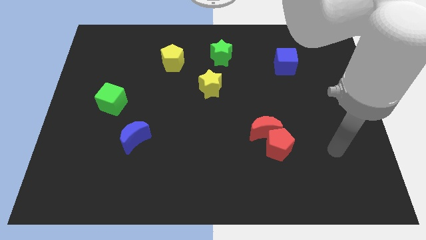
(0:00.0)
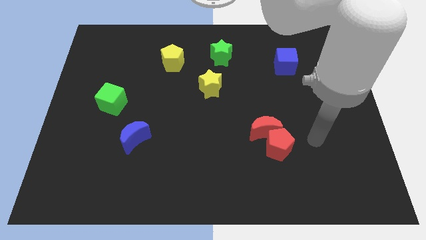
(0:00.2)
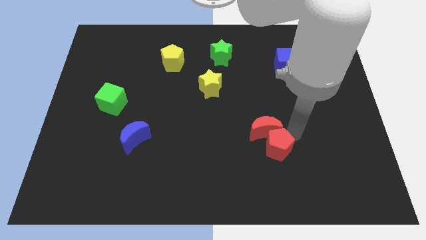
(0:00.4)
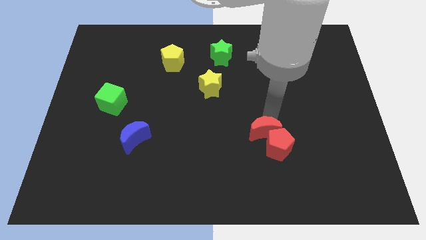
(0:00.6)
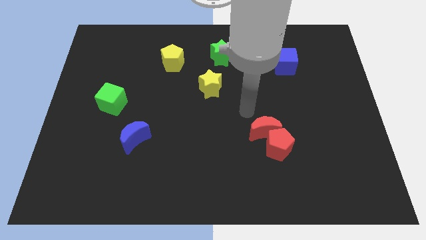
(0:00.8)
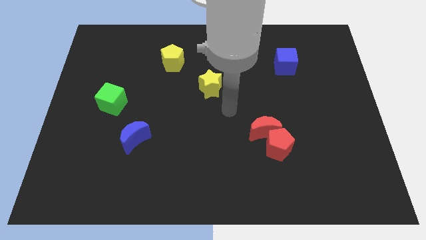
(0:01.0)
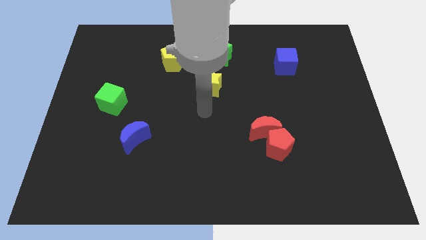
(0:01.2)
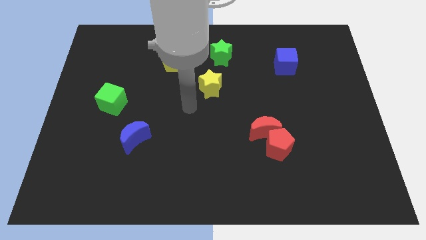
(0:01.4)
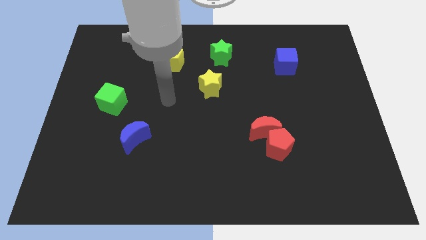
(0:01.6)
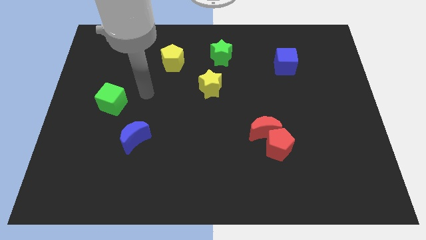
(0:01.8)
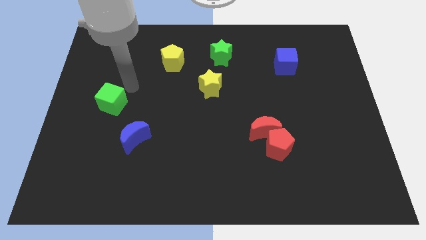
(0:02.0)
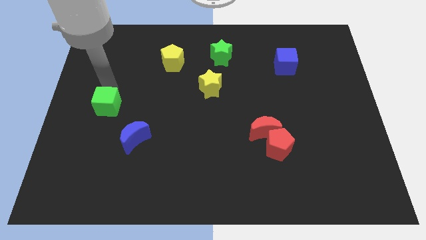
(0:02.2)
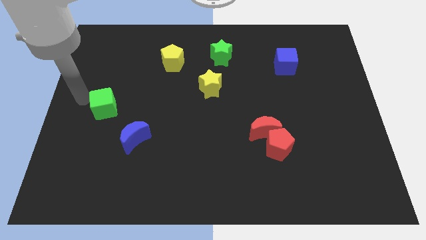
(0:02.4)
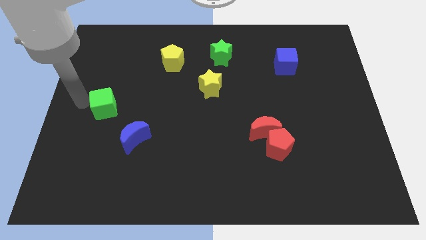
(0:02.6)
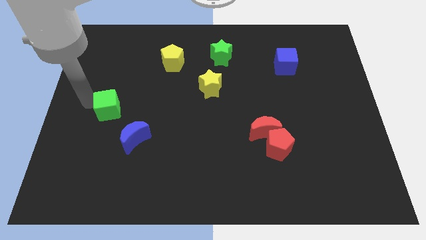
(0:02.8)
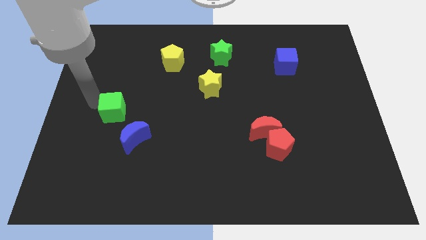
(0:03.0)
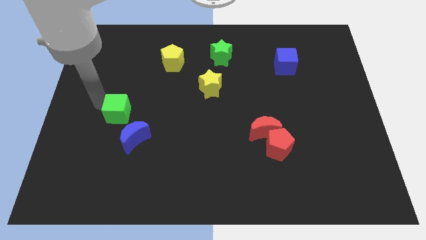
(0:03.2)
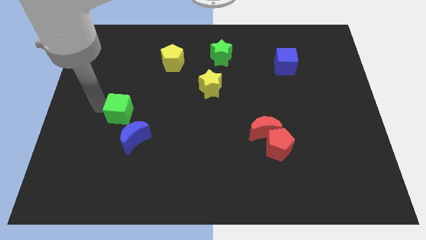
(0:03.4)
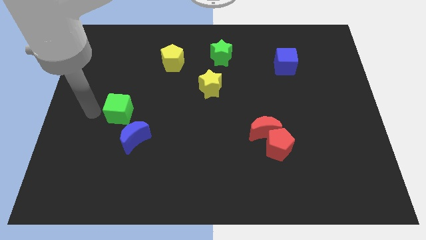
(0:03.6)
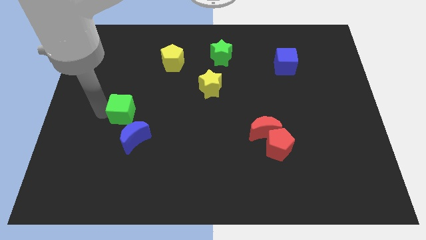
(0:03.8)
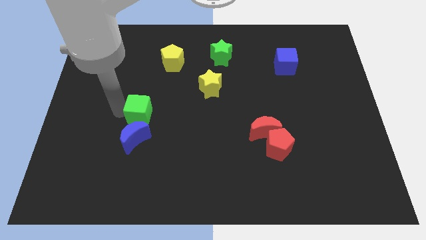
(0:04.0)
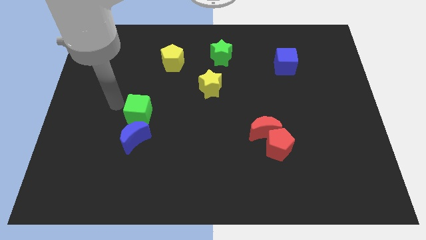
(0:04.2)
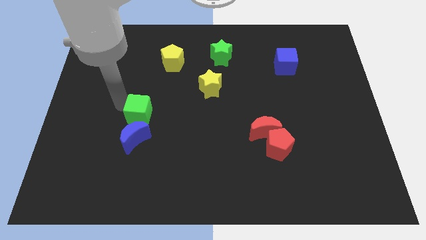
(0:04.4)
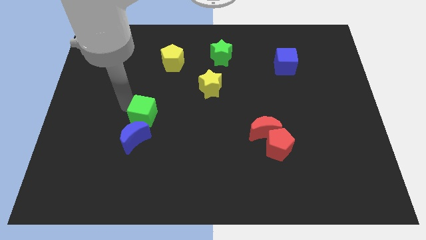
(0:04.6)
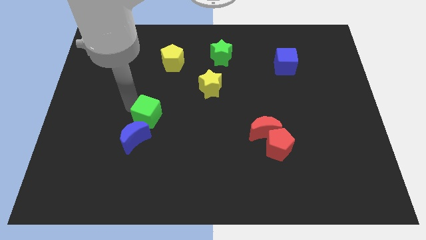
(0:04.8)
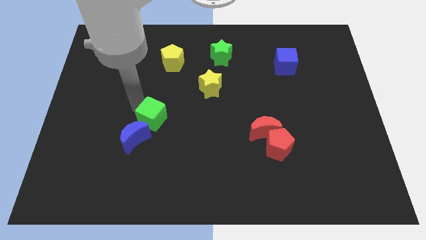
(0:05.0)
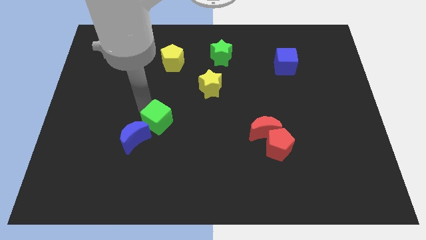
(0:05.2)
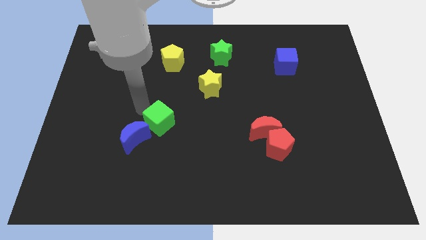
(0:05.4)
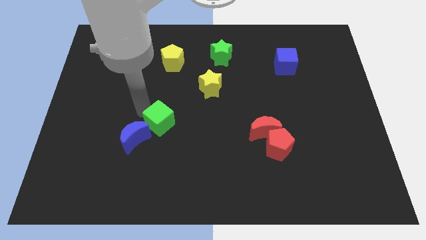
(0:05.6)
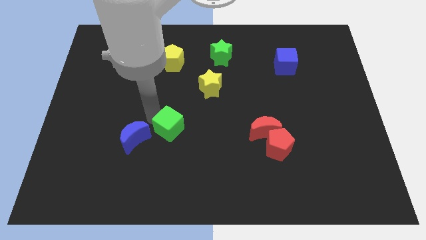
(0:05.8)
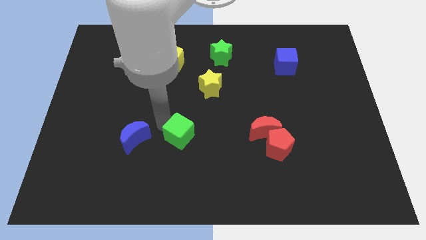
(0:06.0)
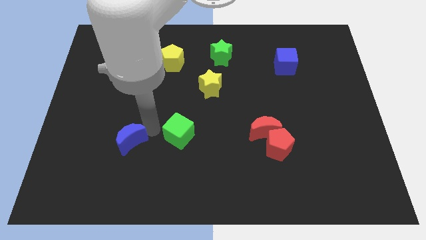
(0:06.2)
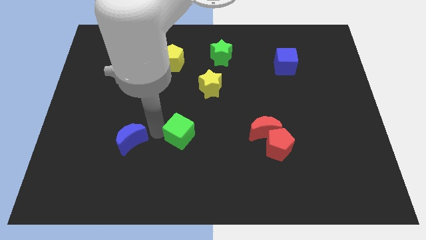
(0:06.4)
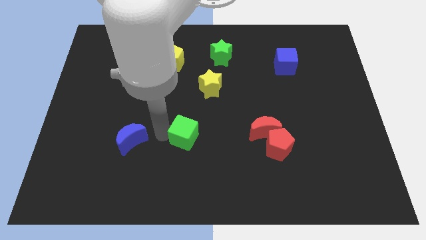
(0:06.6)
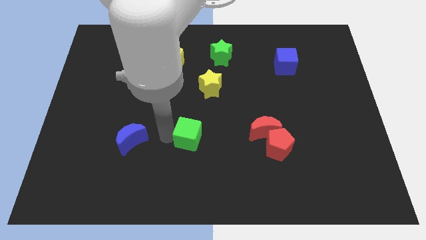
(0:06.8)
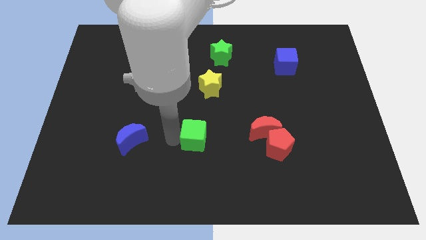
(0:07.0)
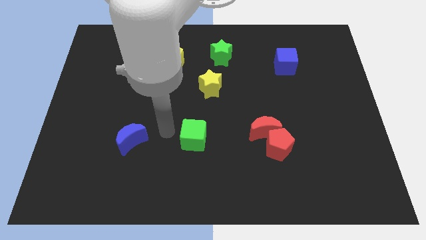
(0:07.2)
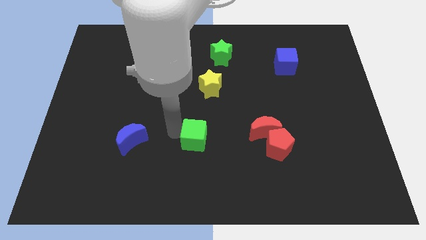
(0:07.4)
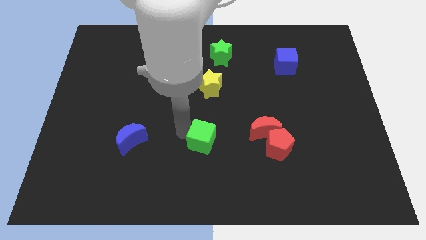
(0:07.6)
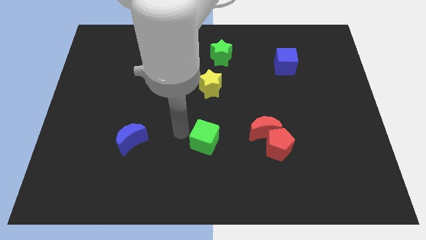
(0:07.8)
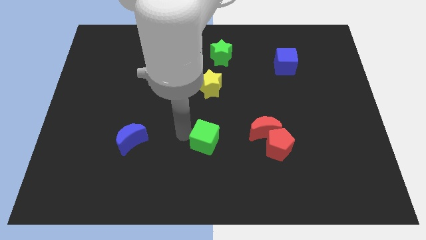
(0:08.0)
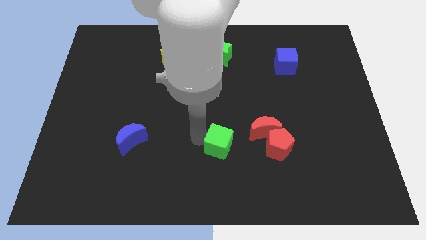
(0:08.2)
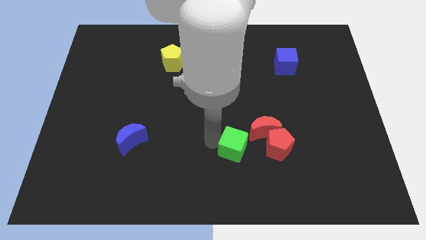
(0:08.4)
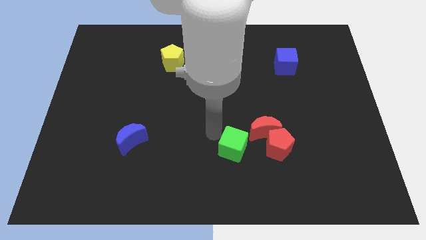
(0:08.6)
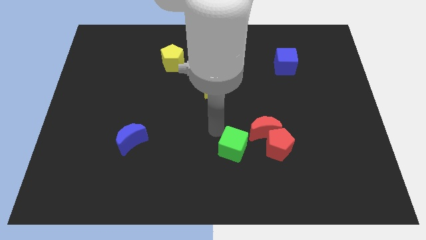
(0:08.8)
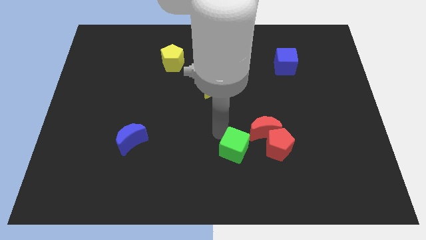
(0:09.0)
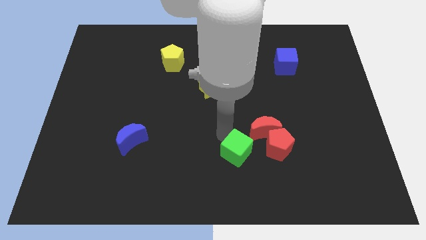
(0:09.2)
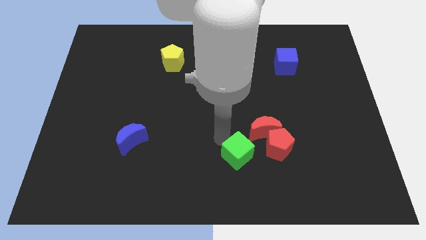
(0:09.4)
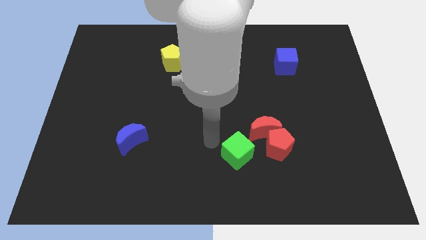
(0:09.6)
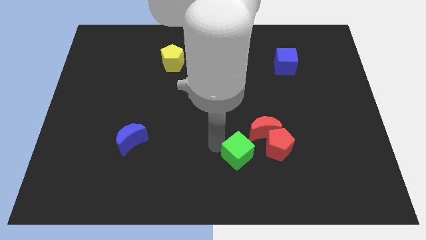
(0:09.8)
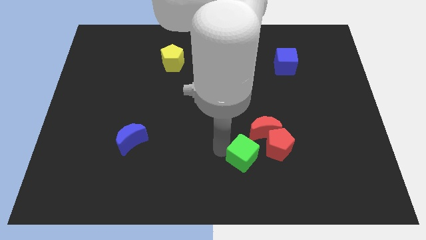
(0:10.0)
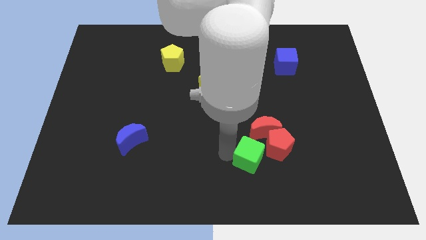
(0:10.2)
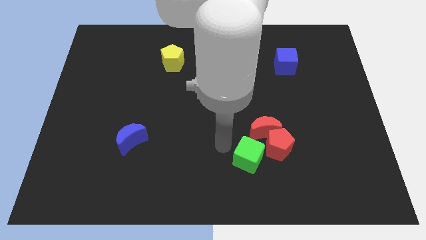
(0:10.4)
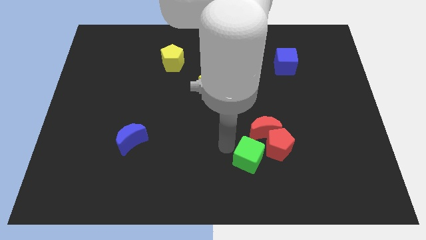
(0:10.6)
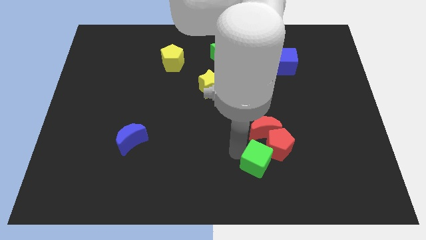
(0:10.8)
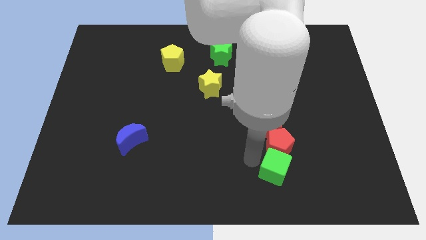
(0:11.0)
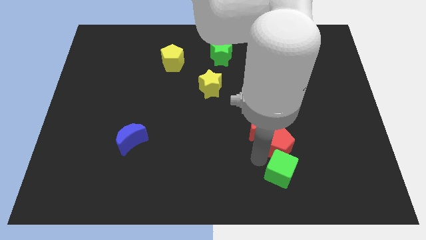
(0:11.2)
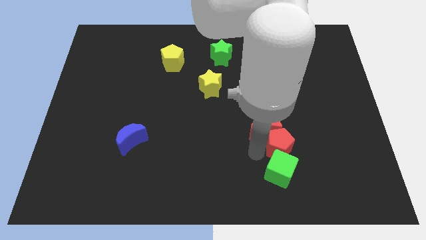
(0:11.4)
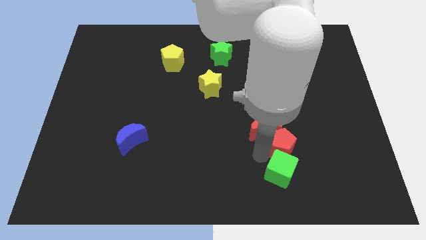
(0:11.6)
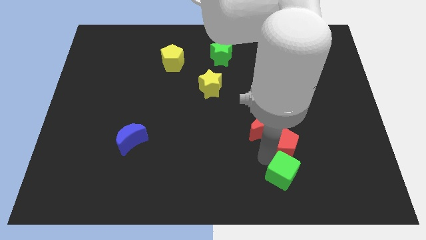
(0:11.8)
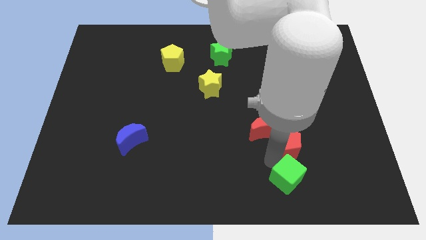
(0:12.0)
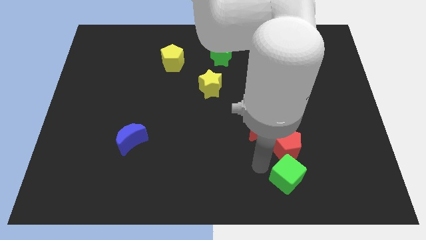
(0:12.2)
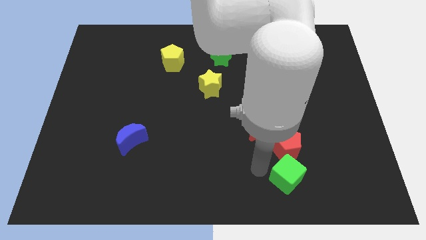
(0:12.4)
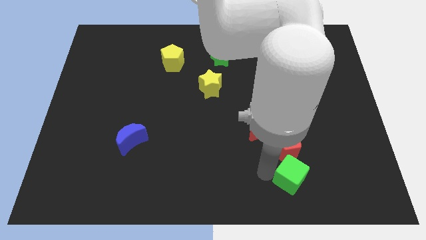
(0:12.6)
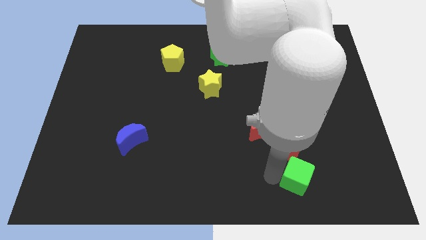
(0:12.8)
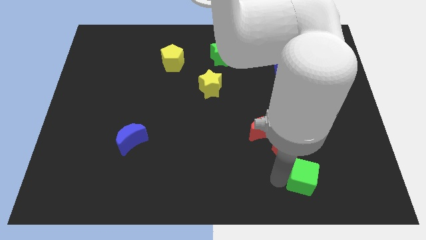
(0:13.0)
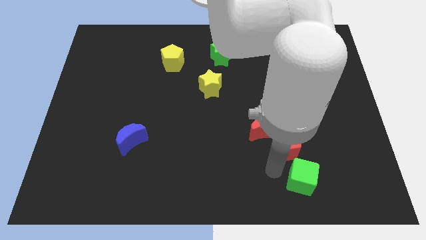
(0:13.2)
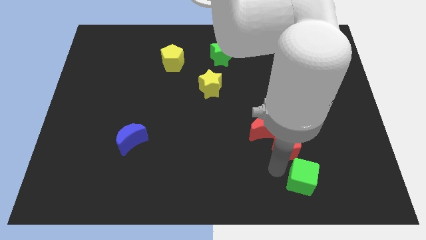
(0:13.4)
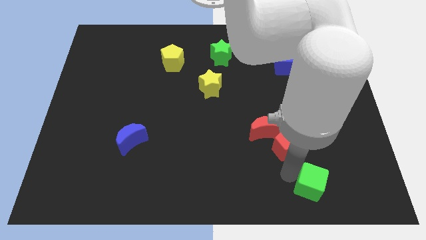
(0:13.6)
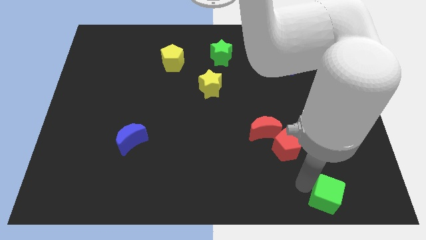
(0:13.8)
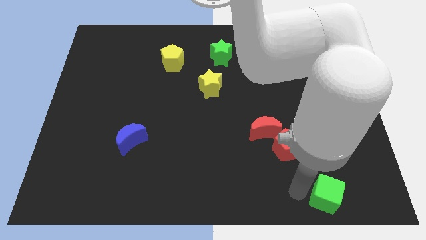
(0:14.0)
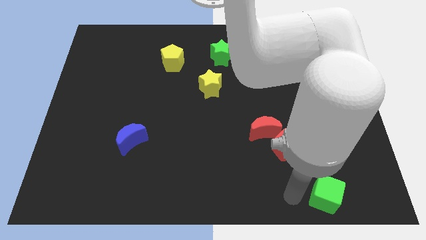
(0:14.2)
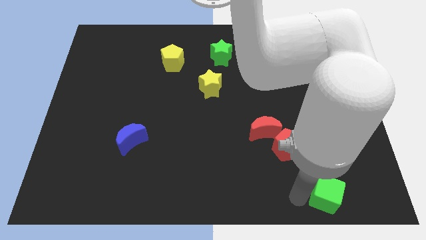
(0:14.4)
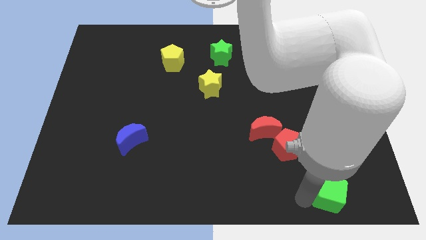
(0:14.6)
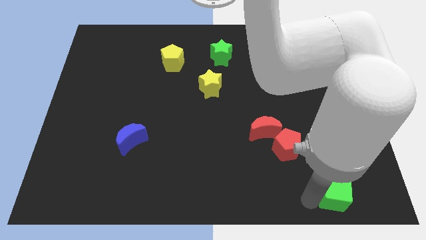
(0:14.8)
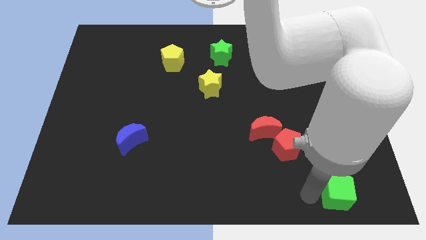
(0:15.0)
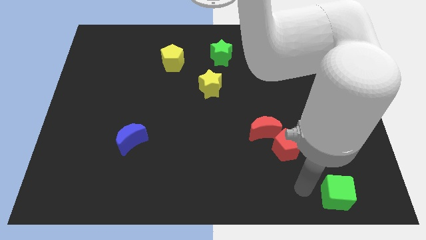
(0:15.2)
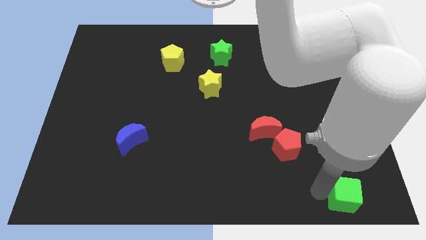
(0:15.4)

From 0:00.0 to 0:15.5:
put the green cube to the bottom right
